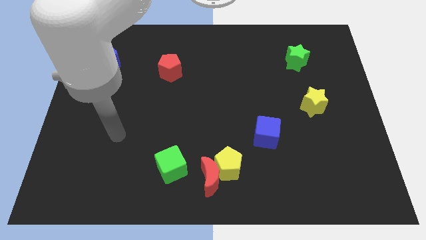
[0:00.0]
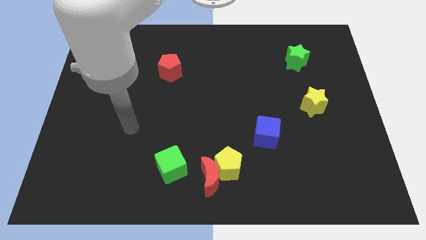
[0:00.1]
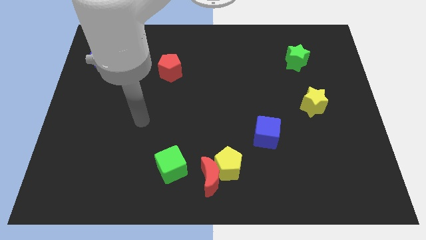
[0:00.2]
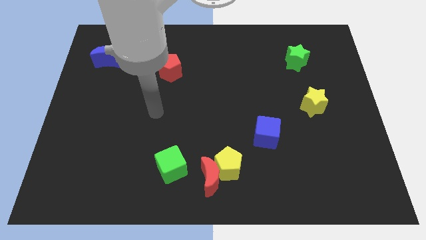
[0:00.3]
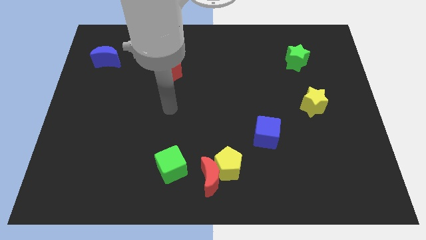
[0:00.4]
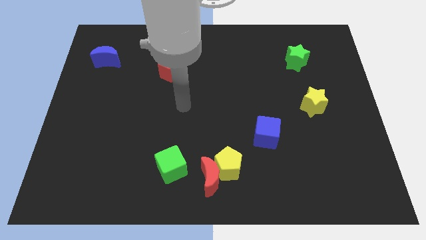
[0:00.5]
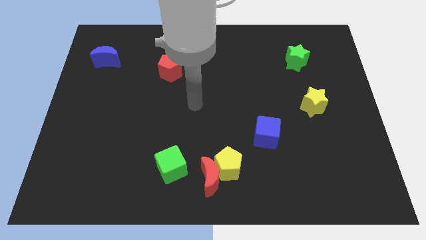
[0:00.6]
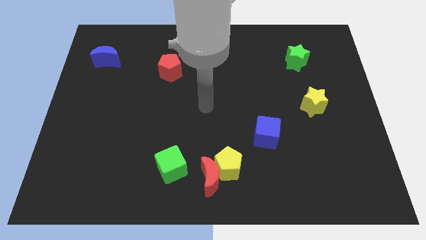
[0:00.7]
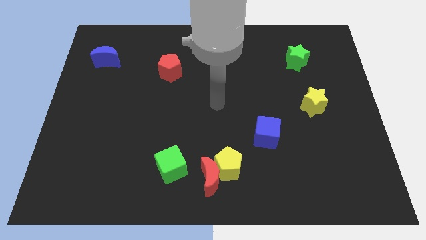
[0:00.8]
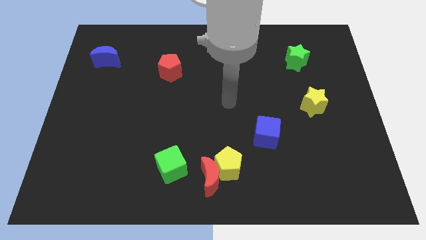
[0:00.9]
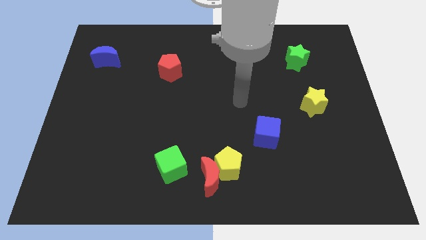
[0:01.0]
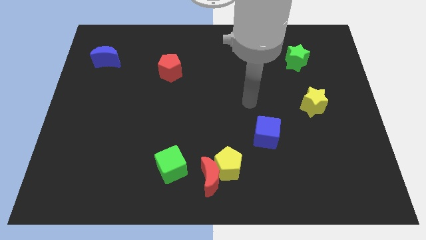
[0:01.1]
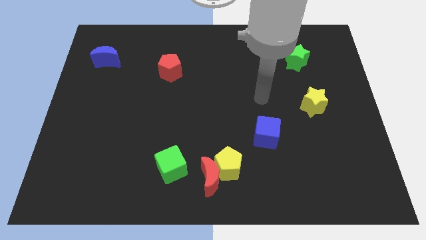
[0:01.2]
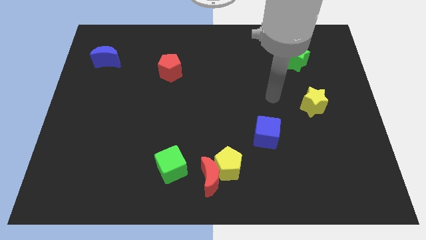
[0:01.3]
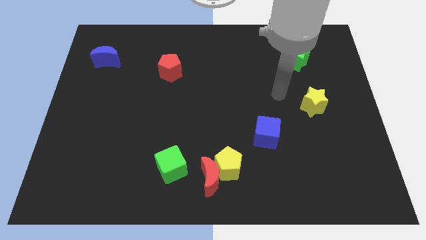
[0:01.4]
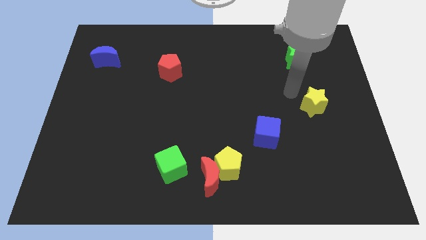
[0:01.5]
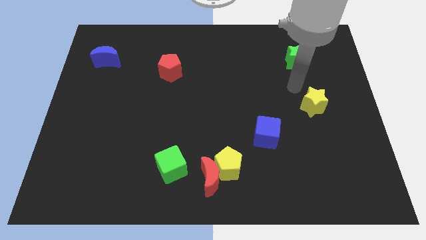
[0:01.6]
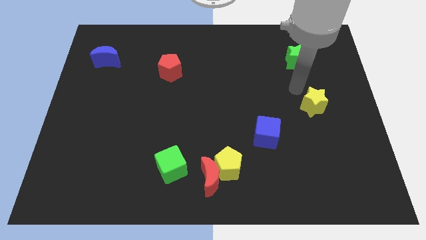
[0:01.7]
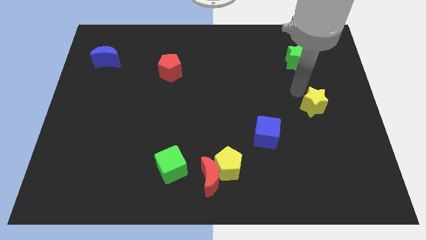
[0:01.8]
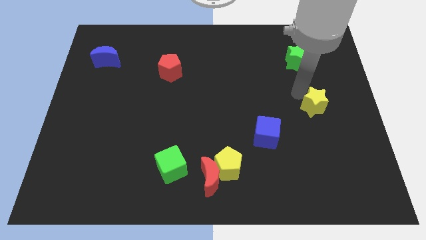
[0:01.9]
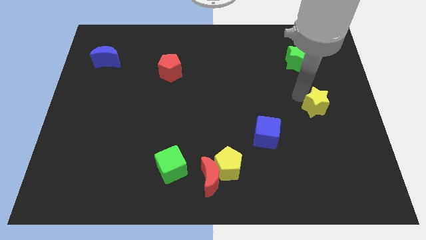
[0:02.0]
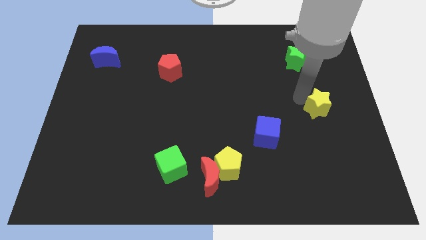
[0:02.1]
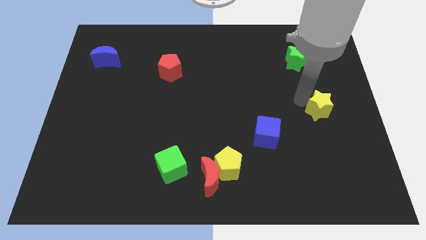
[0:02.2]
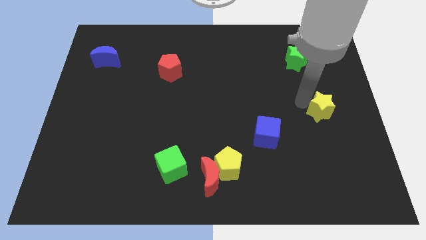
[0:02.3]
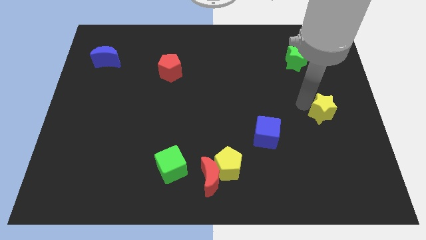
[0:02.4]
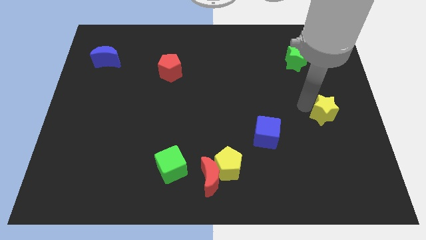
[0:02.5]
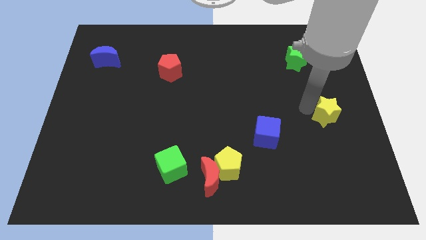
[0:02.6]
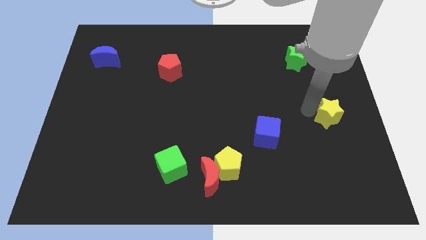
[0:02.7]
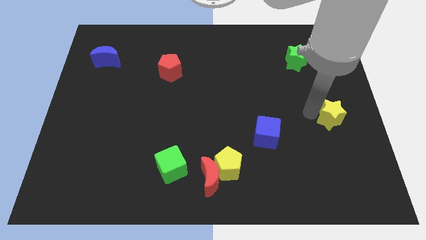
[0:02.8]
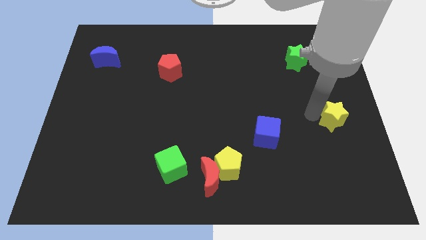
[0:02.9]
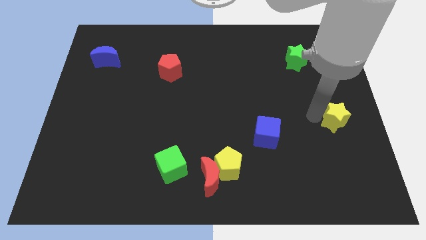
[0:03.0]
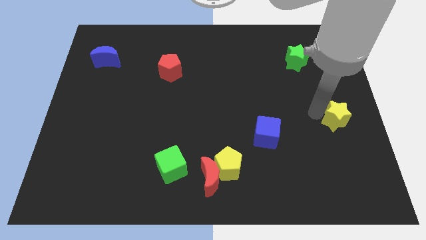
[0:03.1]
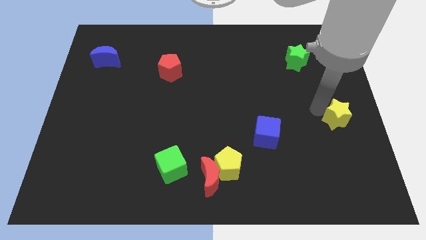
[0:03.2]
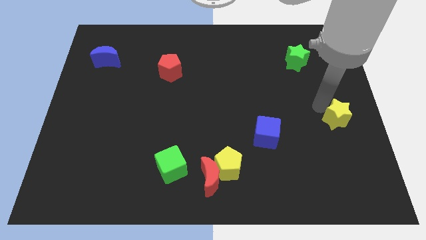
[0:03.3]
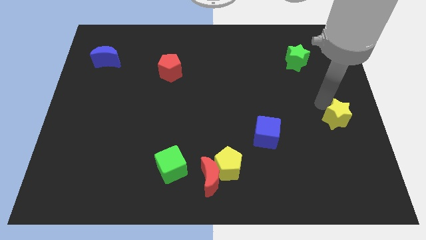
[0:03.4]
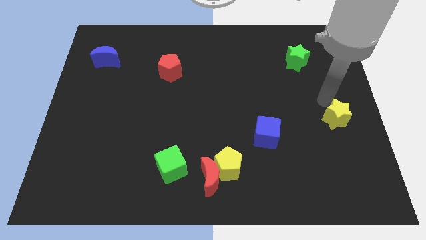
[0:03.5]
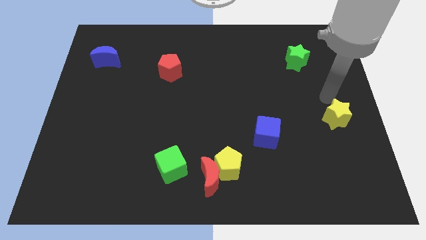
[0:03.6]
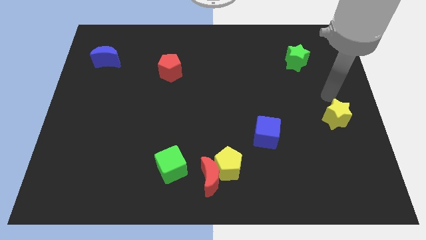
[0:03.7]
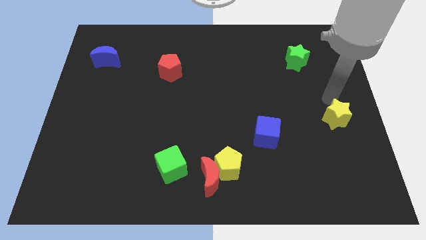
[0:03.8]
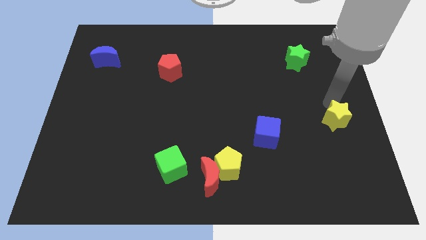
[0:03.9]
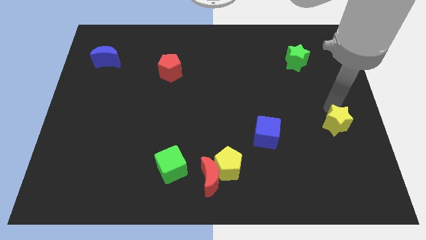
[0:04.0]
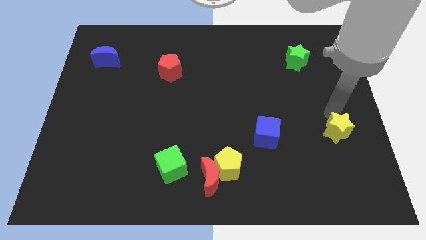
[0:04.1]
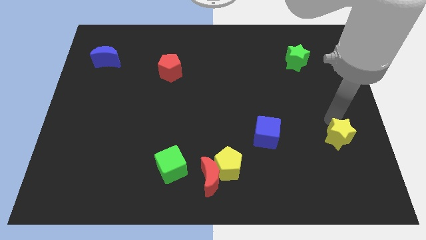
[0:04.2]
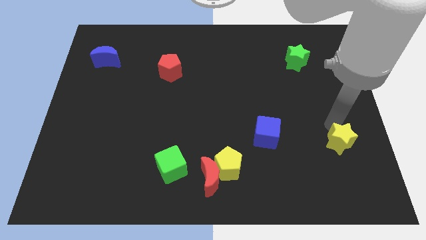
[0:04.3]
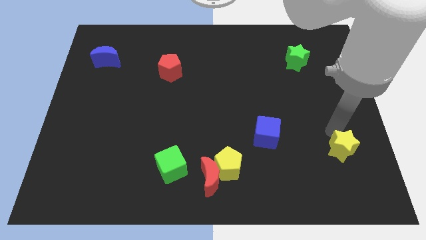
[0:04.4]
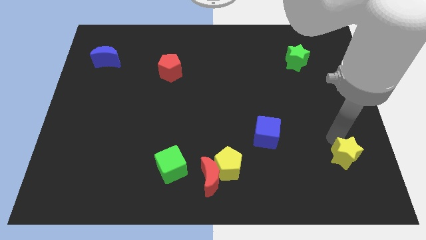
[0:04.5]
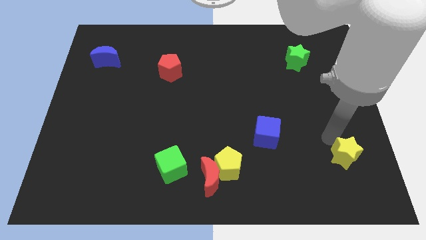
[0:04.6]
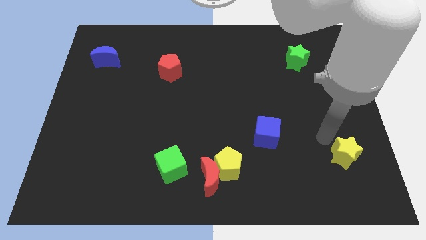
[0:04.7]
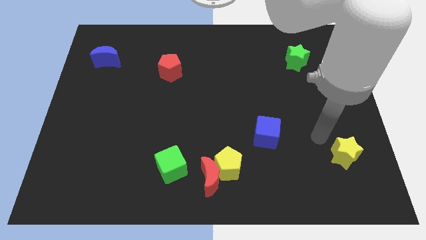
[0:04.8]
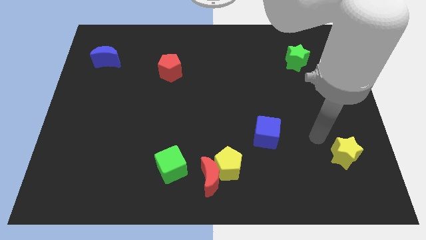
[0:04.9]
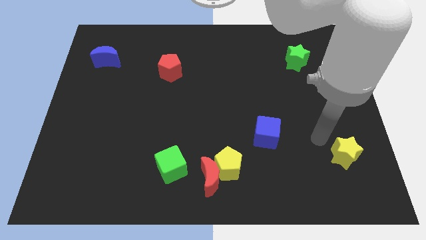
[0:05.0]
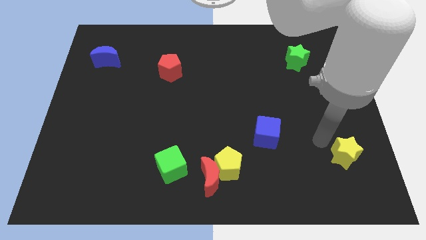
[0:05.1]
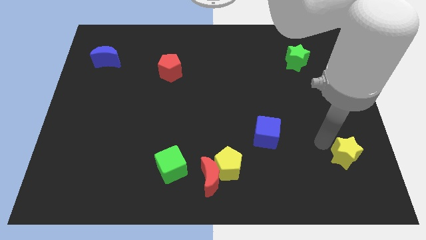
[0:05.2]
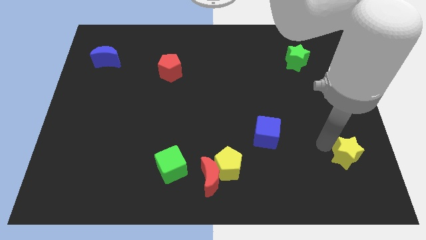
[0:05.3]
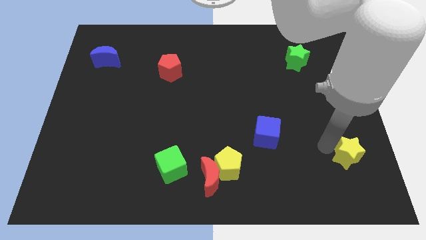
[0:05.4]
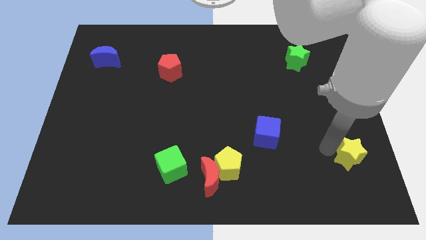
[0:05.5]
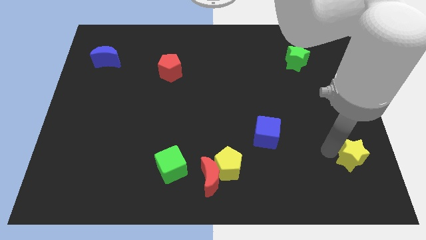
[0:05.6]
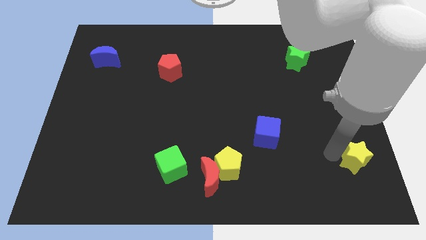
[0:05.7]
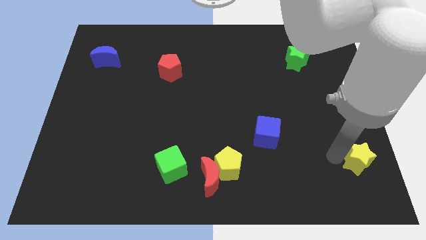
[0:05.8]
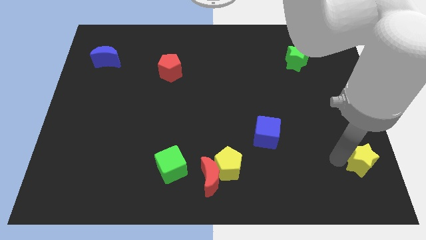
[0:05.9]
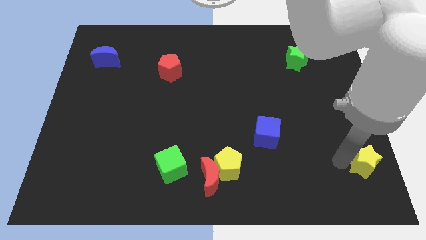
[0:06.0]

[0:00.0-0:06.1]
move the yellow star to the bottom right corner
